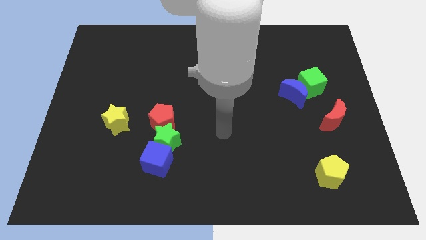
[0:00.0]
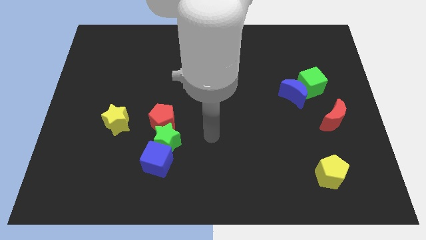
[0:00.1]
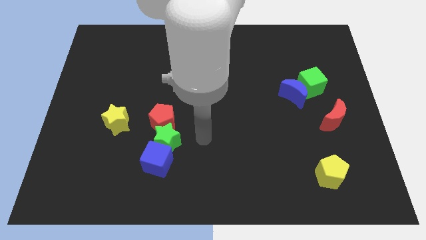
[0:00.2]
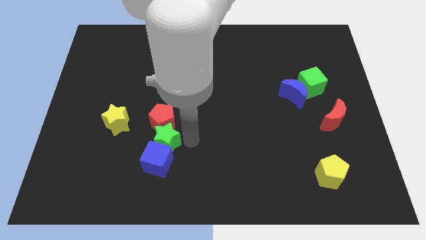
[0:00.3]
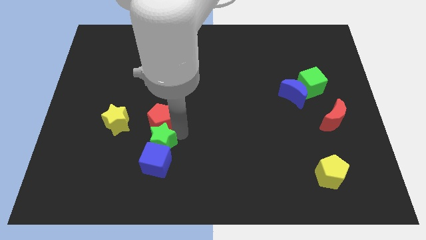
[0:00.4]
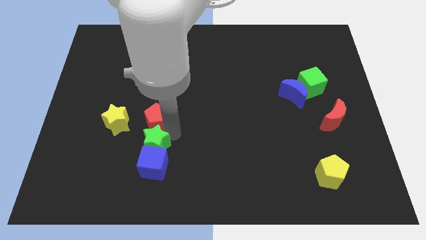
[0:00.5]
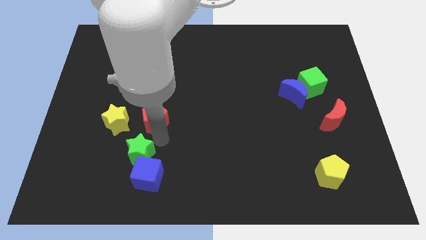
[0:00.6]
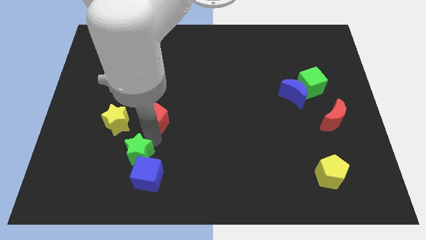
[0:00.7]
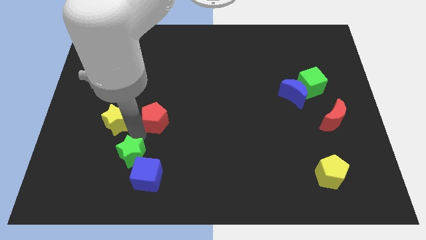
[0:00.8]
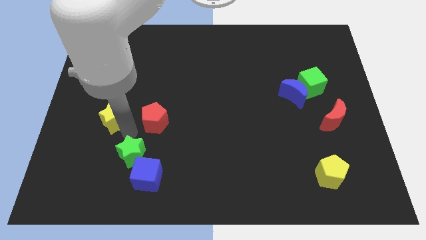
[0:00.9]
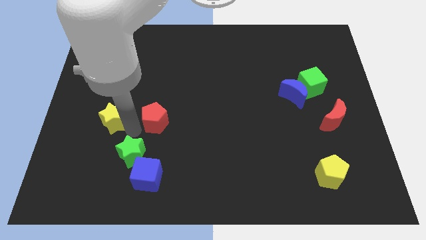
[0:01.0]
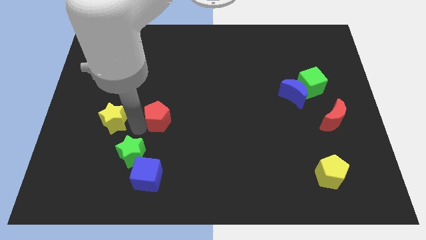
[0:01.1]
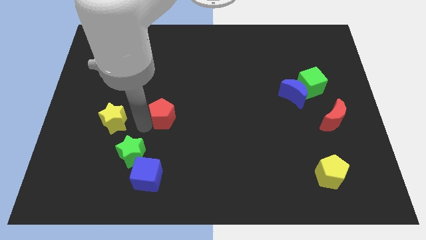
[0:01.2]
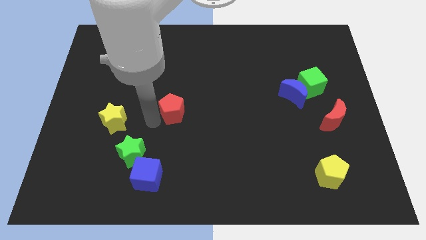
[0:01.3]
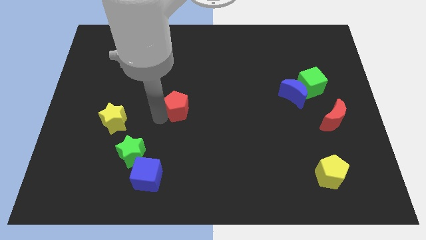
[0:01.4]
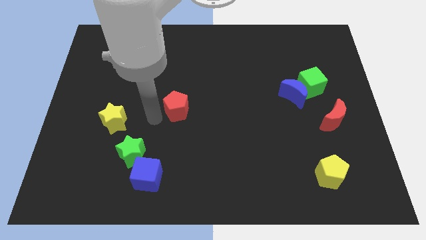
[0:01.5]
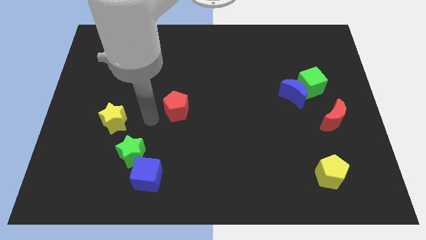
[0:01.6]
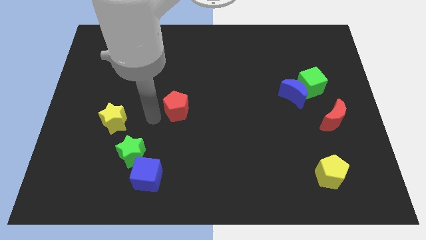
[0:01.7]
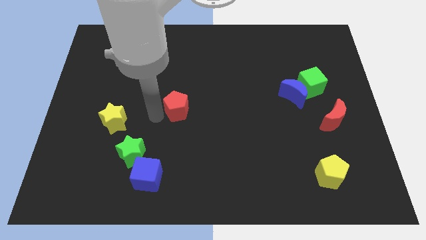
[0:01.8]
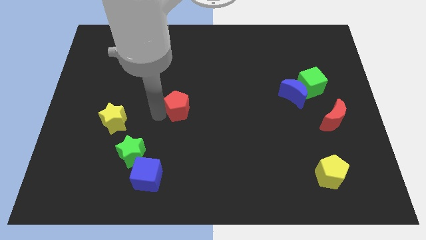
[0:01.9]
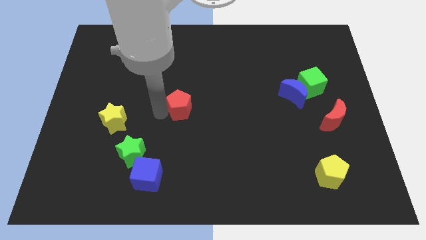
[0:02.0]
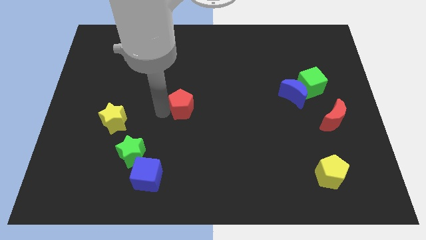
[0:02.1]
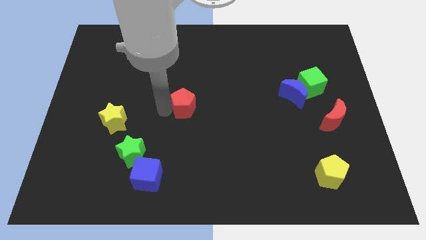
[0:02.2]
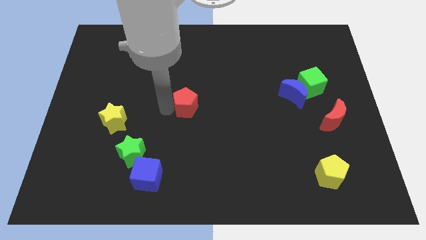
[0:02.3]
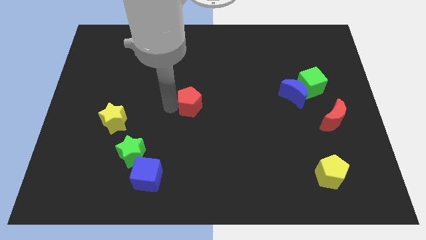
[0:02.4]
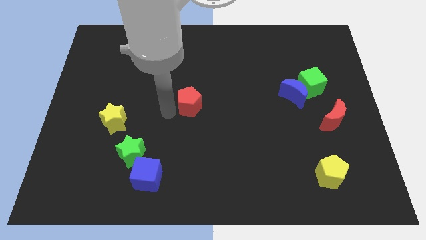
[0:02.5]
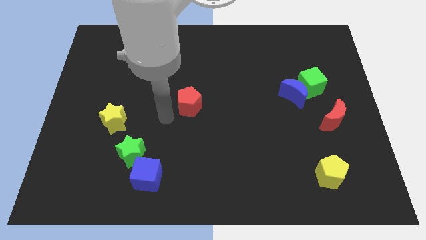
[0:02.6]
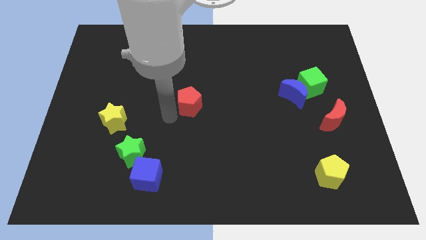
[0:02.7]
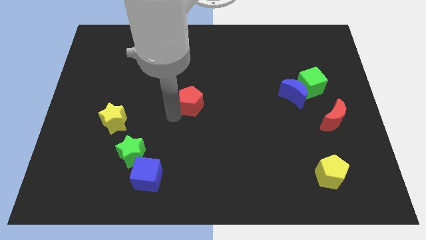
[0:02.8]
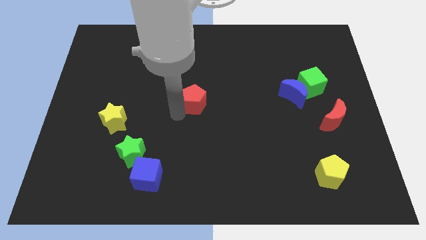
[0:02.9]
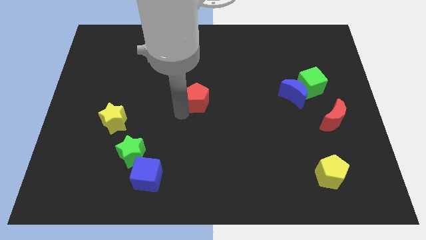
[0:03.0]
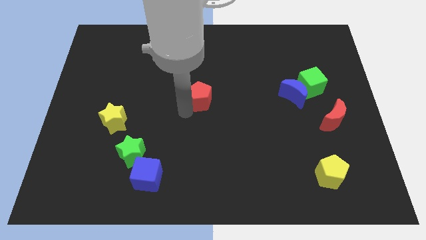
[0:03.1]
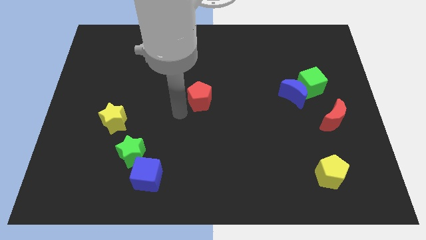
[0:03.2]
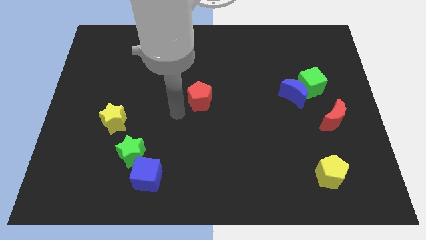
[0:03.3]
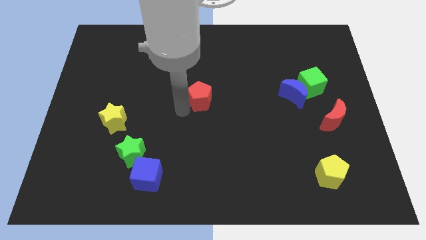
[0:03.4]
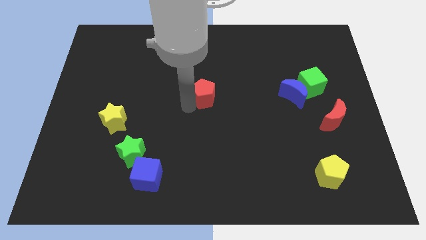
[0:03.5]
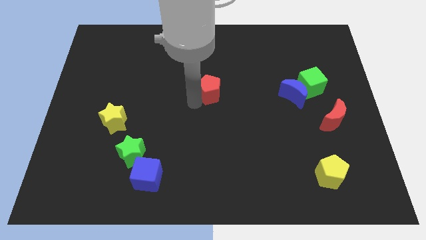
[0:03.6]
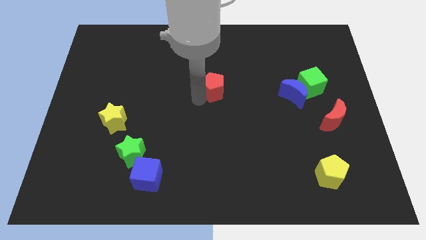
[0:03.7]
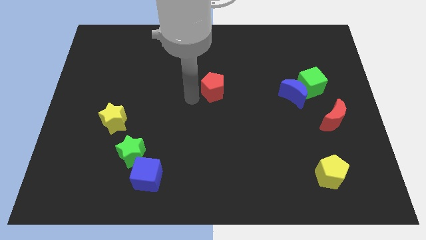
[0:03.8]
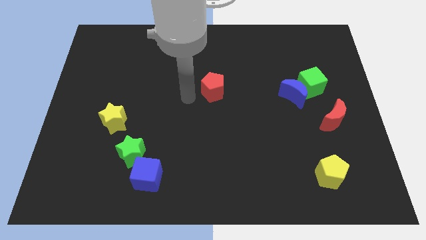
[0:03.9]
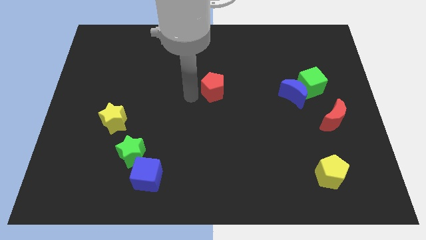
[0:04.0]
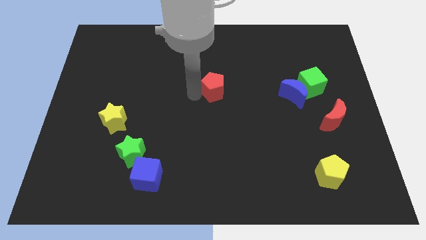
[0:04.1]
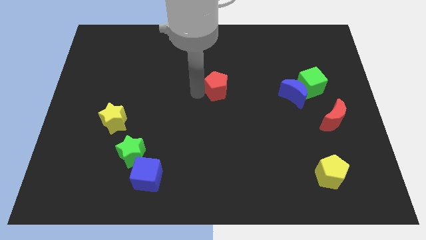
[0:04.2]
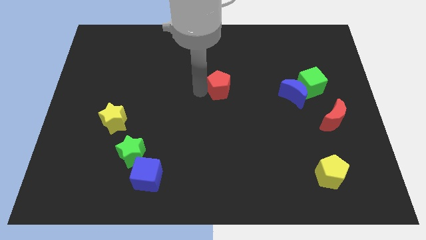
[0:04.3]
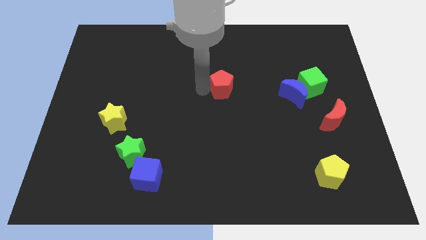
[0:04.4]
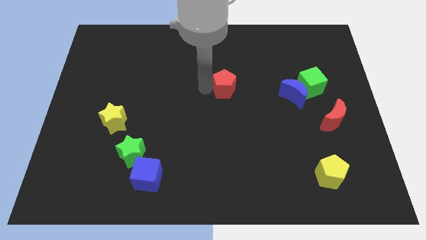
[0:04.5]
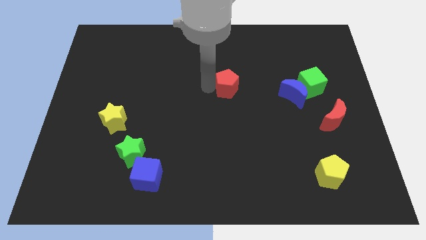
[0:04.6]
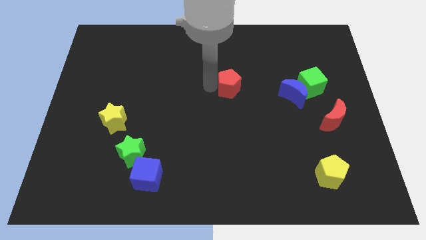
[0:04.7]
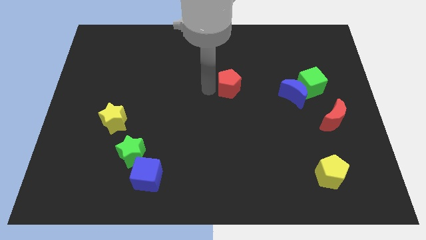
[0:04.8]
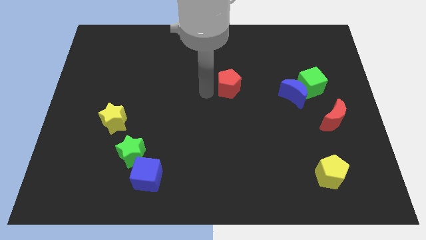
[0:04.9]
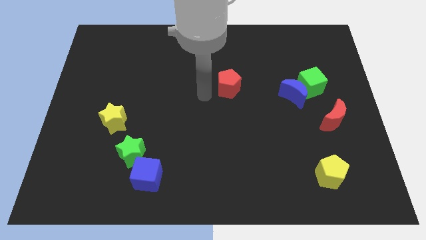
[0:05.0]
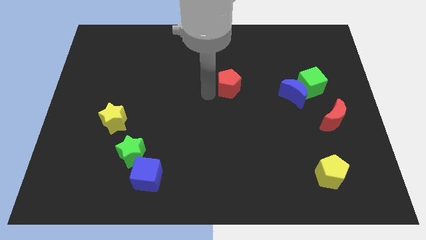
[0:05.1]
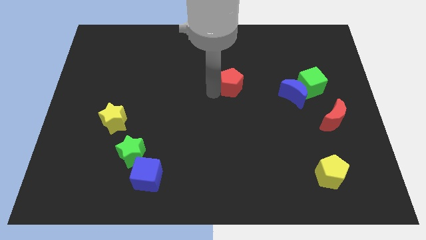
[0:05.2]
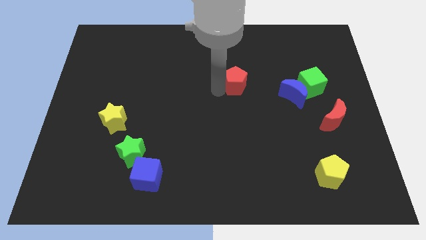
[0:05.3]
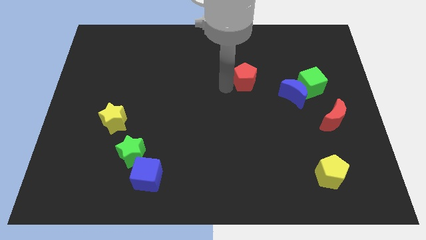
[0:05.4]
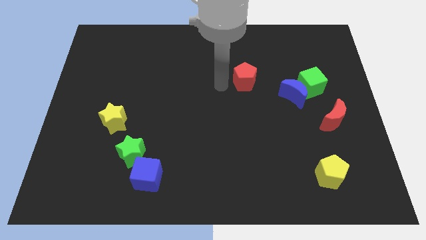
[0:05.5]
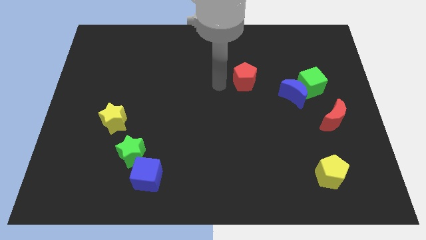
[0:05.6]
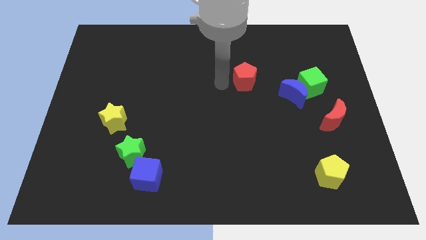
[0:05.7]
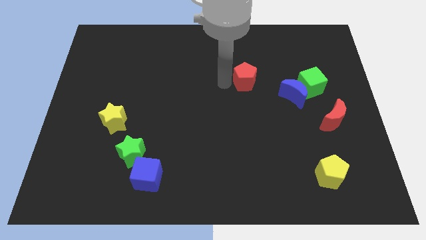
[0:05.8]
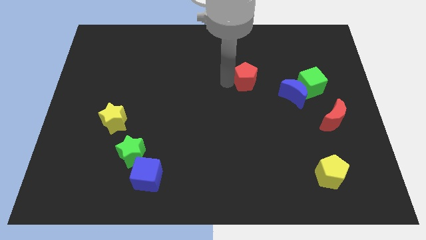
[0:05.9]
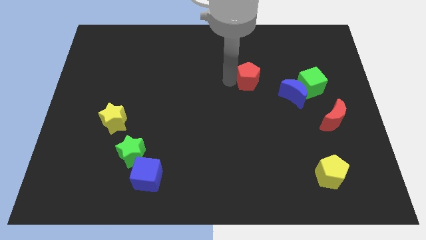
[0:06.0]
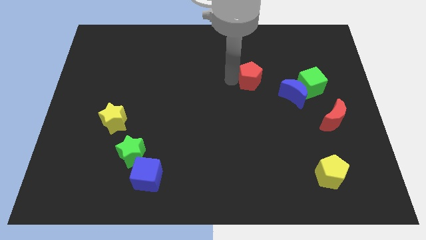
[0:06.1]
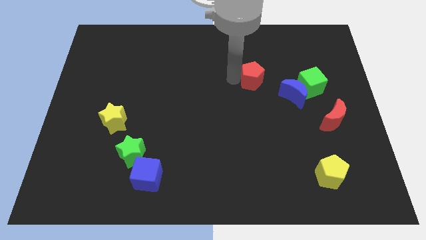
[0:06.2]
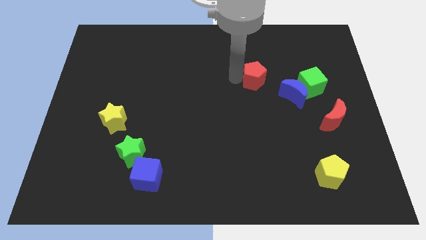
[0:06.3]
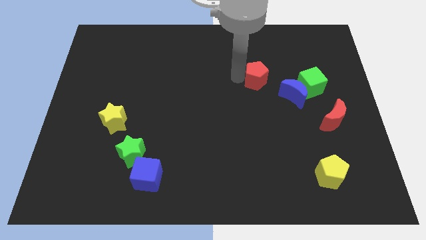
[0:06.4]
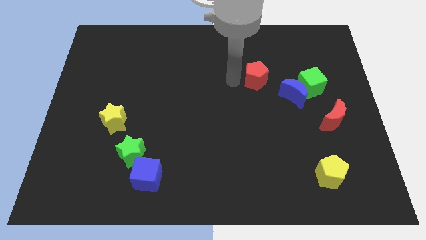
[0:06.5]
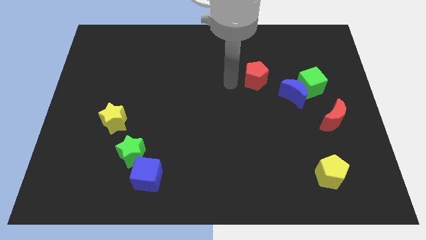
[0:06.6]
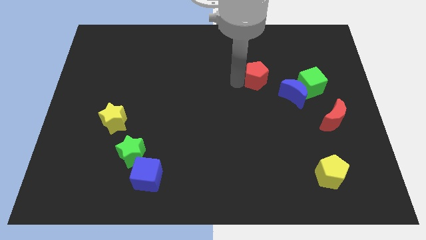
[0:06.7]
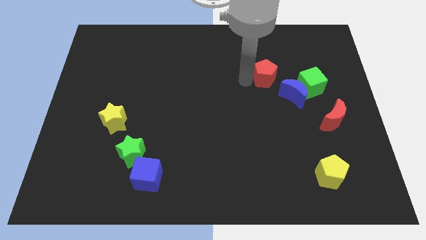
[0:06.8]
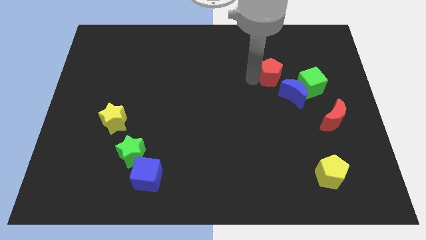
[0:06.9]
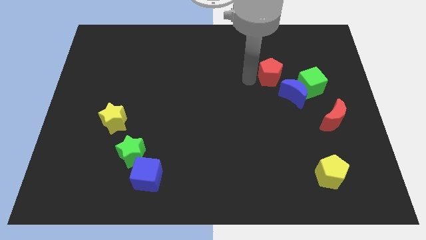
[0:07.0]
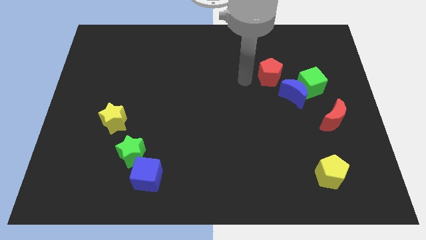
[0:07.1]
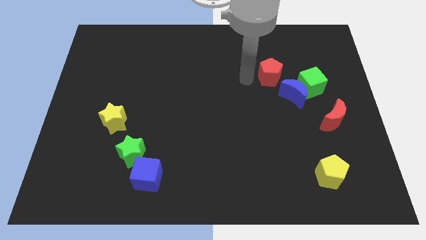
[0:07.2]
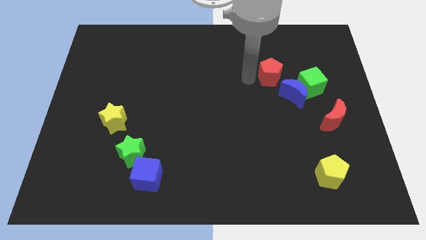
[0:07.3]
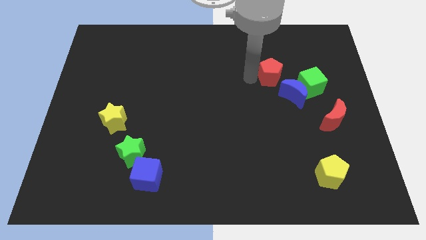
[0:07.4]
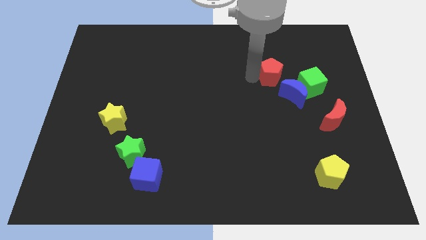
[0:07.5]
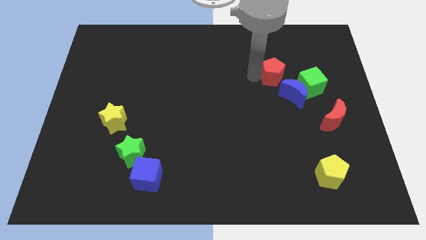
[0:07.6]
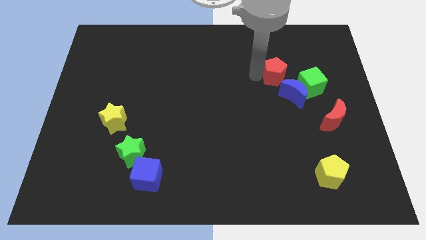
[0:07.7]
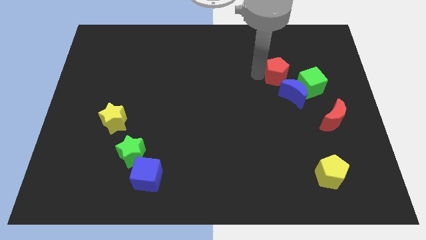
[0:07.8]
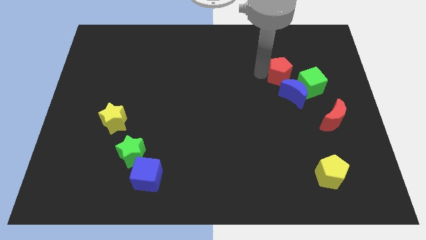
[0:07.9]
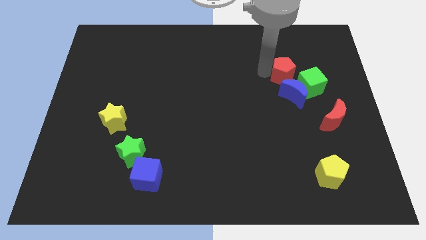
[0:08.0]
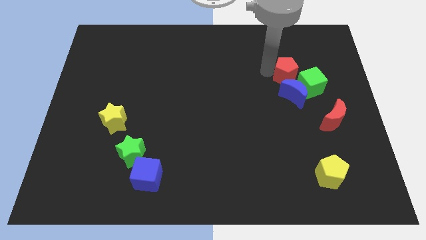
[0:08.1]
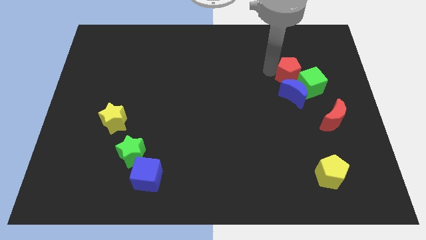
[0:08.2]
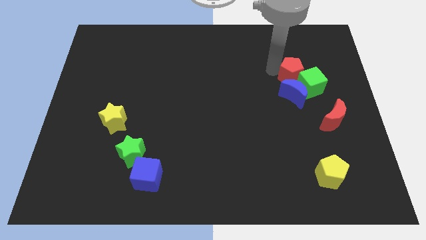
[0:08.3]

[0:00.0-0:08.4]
slide the red pentagon diagonally up and to the right of the blue moon
